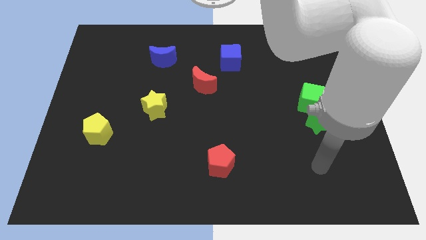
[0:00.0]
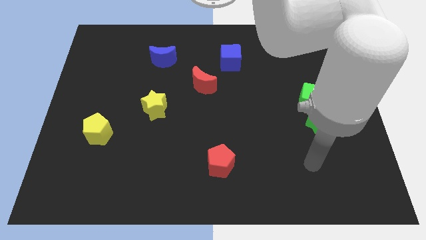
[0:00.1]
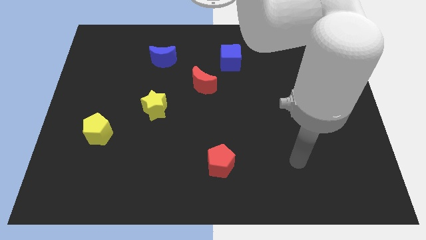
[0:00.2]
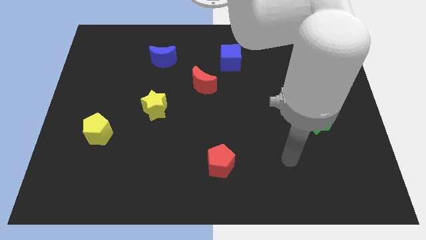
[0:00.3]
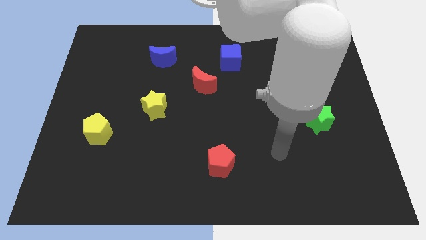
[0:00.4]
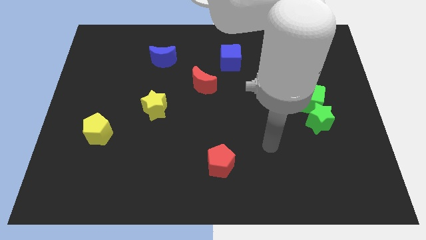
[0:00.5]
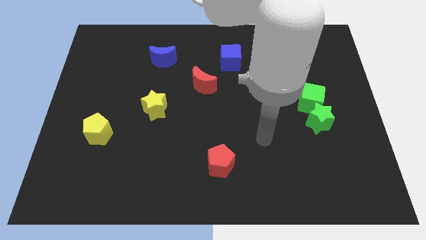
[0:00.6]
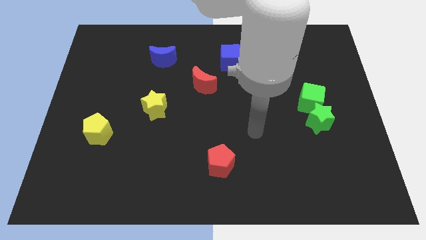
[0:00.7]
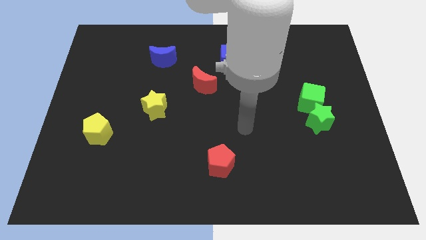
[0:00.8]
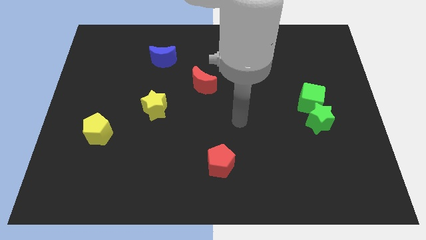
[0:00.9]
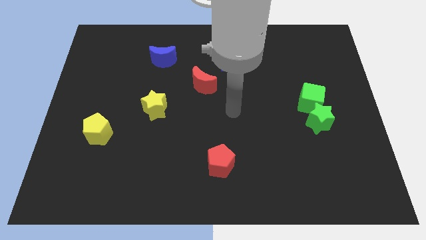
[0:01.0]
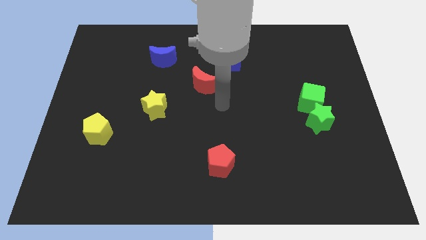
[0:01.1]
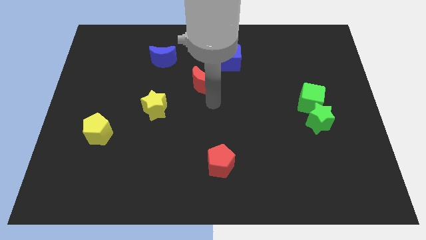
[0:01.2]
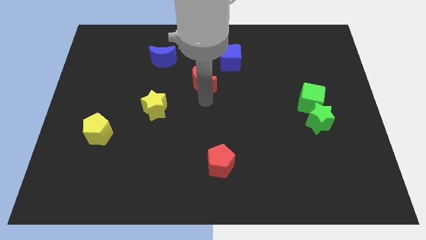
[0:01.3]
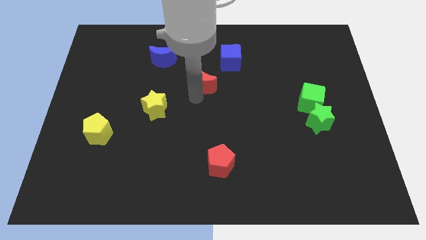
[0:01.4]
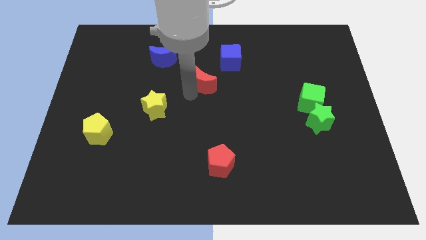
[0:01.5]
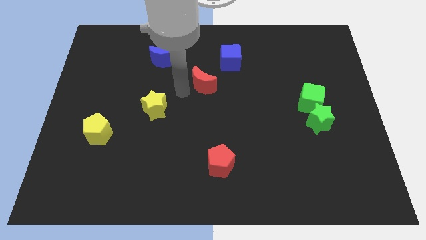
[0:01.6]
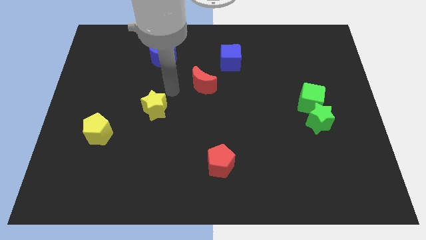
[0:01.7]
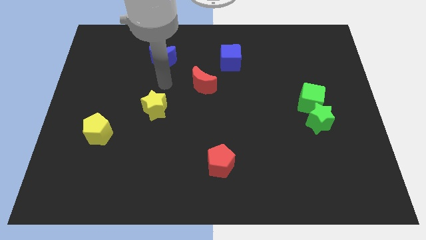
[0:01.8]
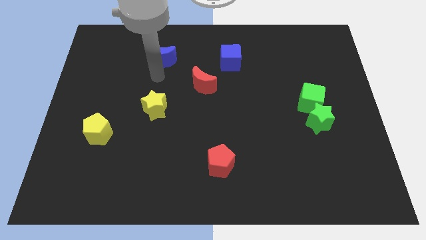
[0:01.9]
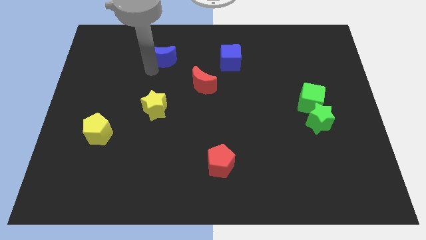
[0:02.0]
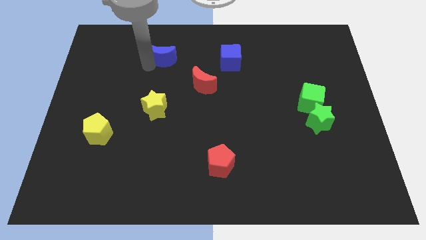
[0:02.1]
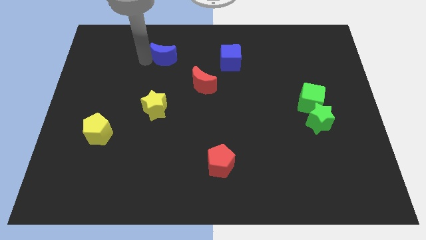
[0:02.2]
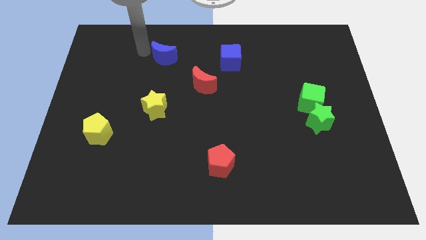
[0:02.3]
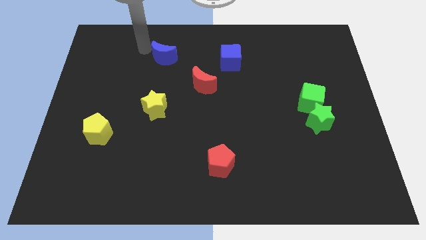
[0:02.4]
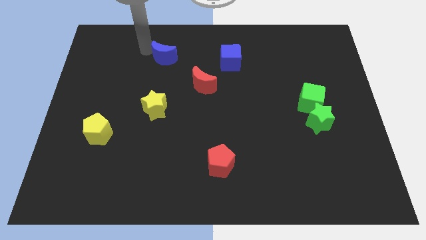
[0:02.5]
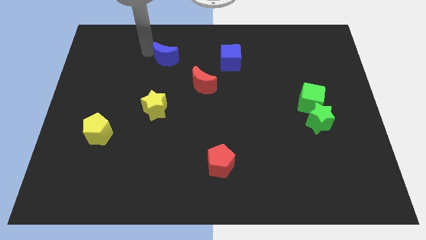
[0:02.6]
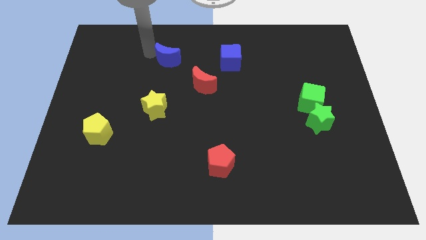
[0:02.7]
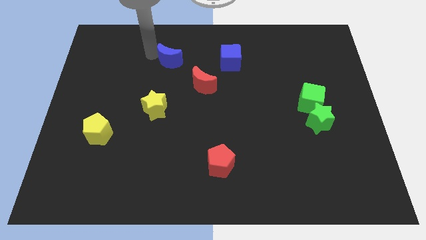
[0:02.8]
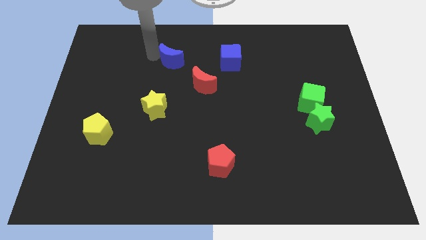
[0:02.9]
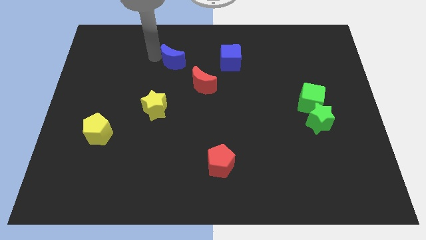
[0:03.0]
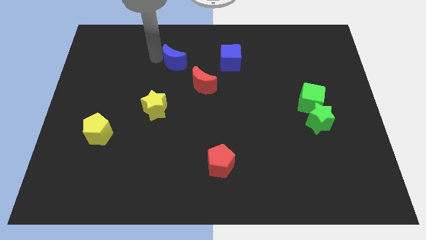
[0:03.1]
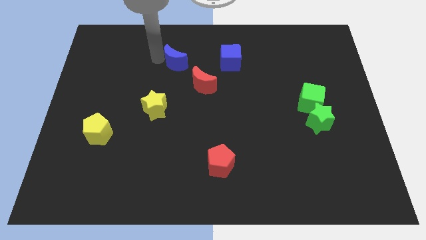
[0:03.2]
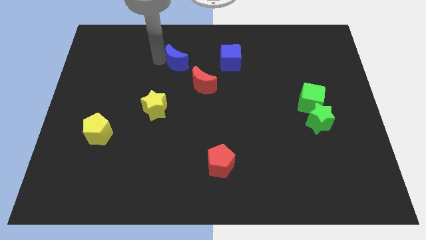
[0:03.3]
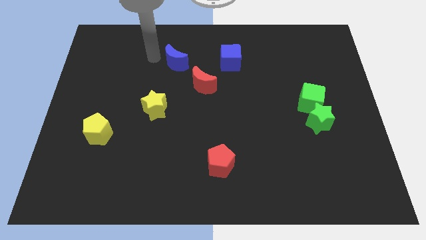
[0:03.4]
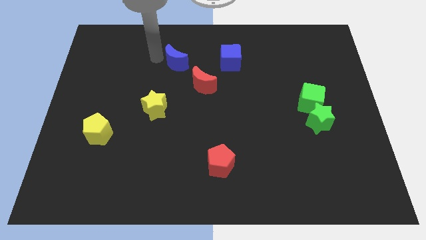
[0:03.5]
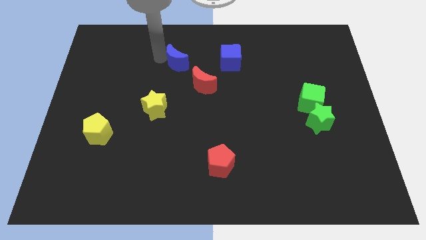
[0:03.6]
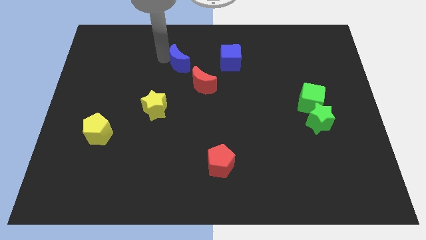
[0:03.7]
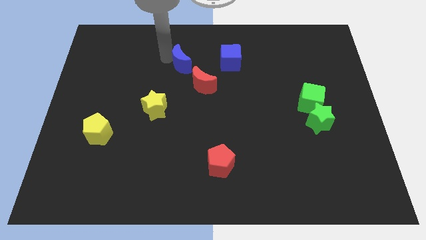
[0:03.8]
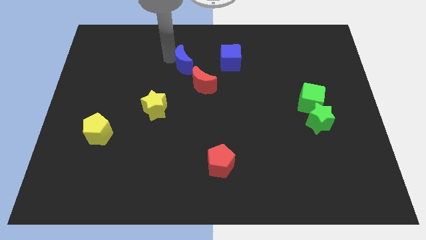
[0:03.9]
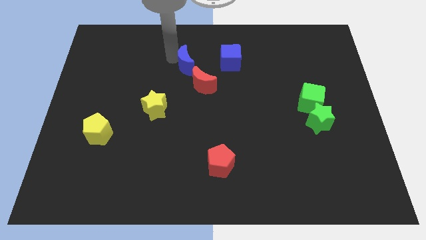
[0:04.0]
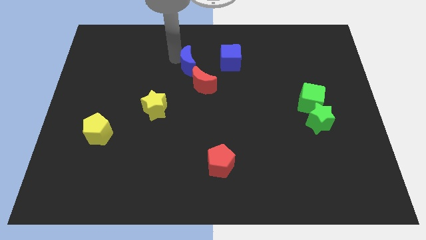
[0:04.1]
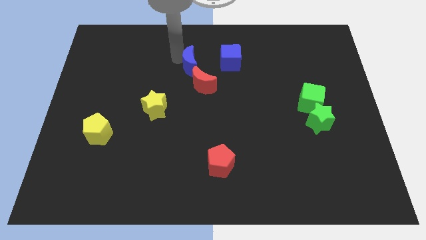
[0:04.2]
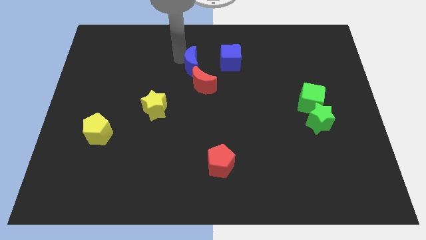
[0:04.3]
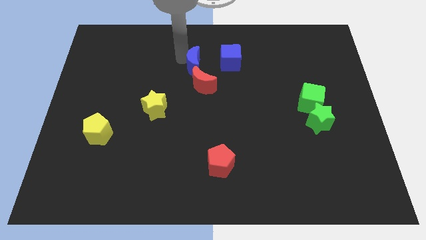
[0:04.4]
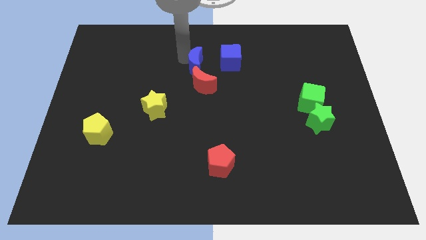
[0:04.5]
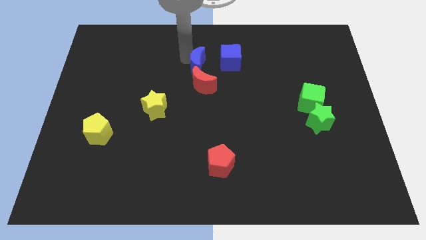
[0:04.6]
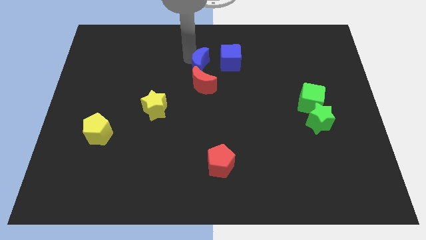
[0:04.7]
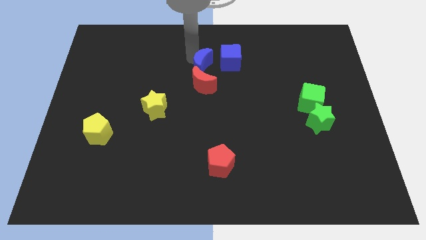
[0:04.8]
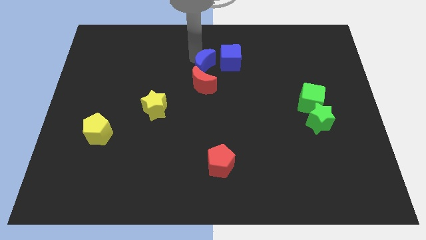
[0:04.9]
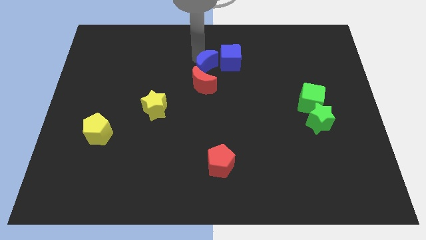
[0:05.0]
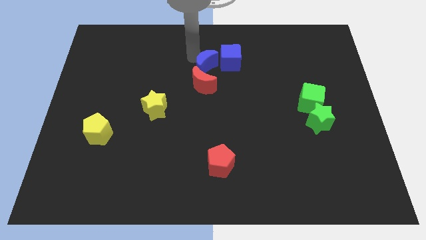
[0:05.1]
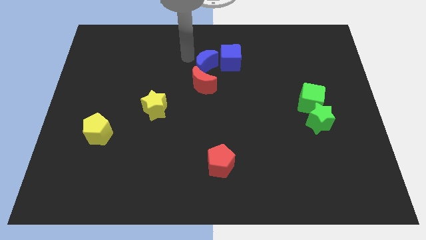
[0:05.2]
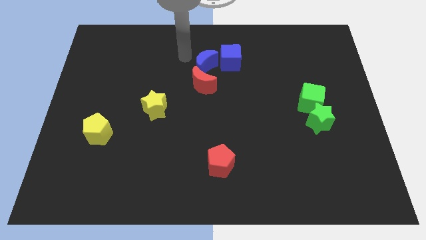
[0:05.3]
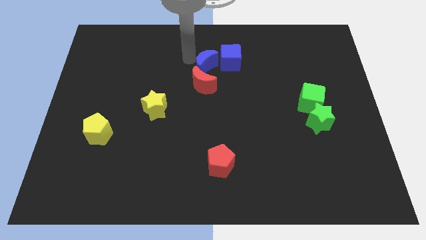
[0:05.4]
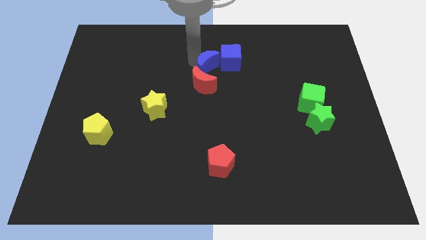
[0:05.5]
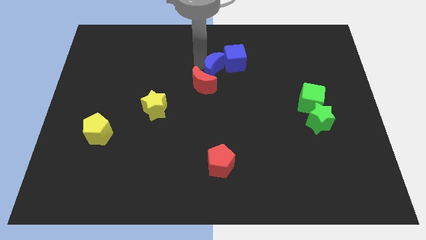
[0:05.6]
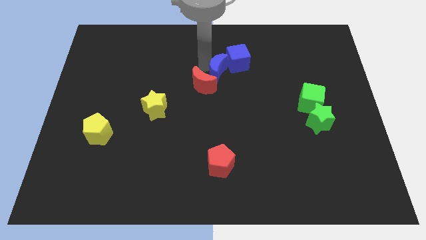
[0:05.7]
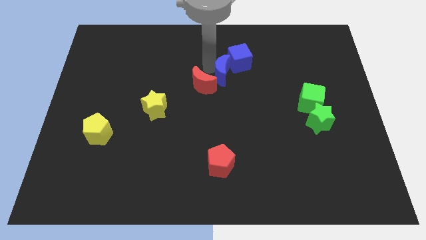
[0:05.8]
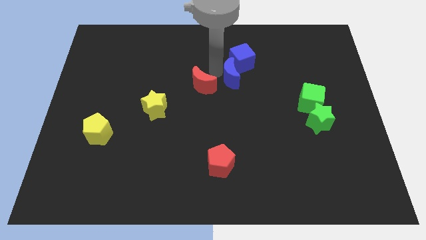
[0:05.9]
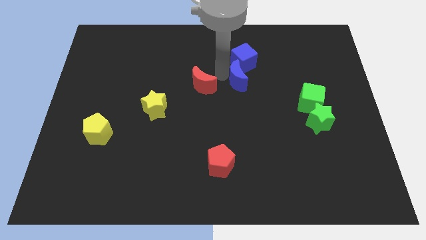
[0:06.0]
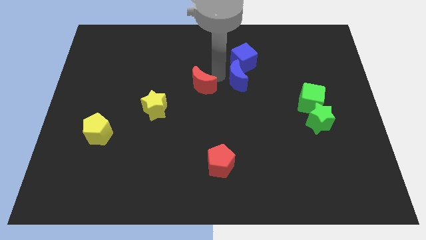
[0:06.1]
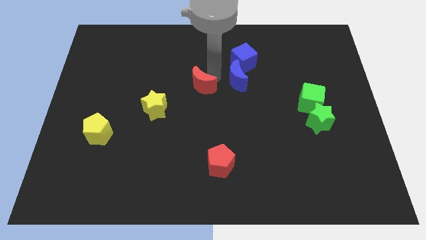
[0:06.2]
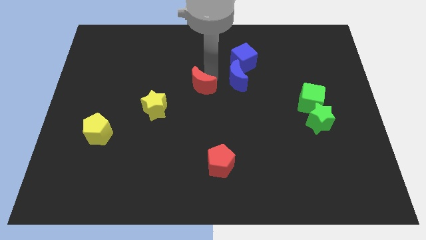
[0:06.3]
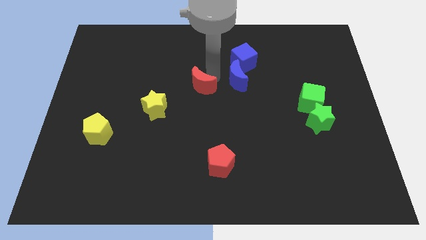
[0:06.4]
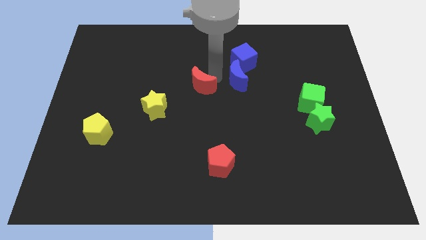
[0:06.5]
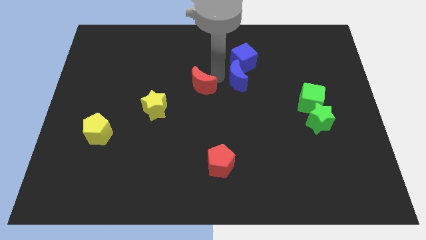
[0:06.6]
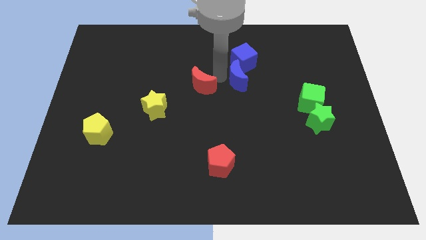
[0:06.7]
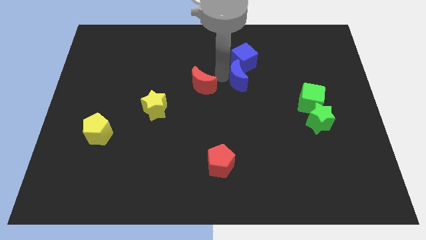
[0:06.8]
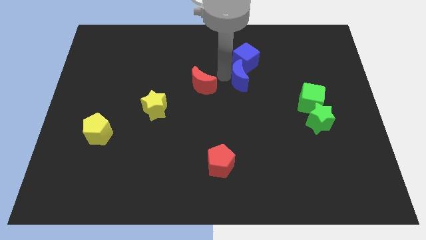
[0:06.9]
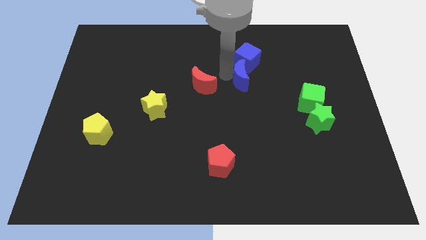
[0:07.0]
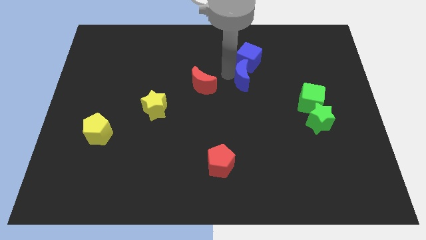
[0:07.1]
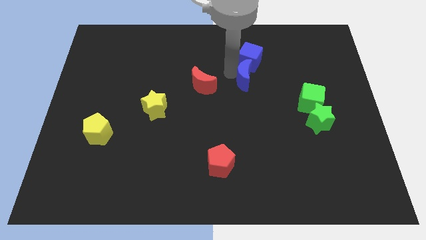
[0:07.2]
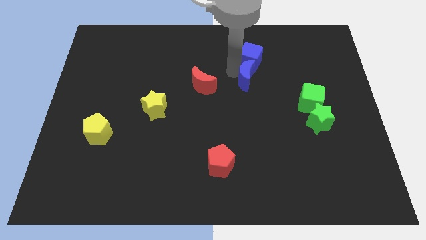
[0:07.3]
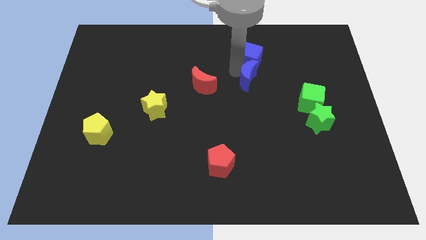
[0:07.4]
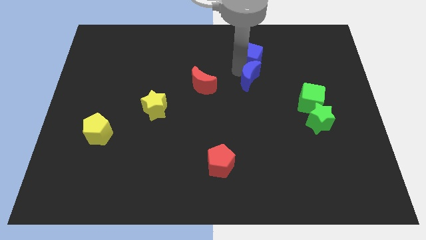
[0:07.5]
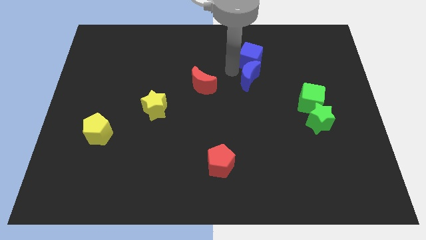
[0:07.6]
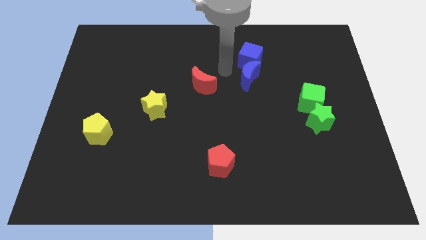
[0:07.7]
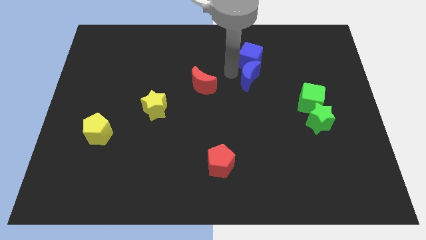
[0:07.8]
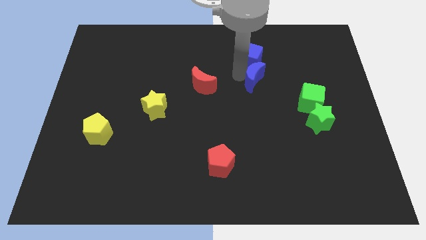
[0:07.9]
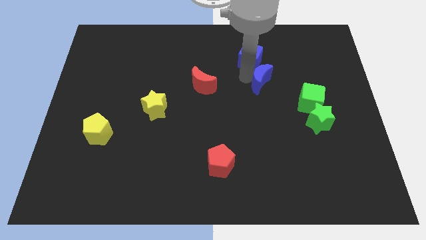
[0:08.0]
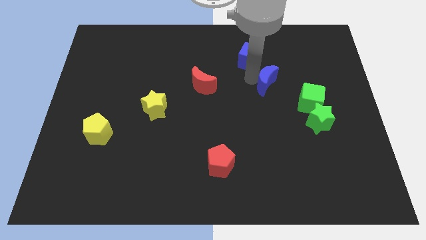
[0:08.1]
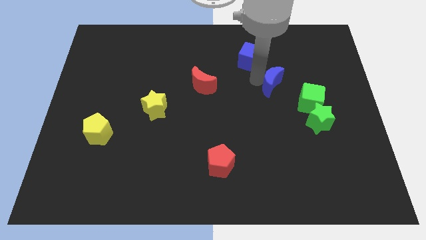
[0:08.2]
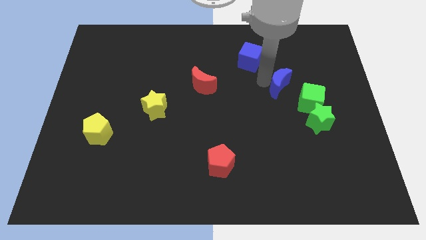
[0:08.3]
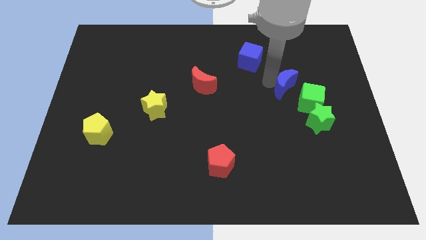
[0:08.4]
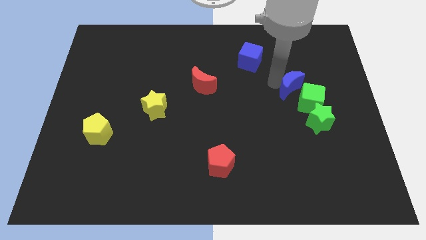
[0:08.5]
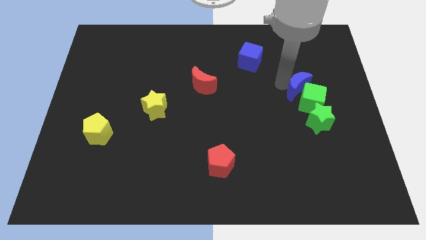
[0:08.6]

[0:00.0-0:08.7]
slide the blue moon close to the green cube
